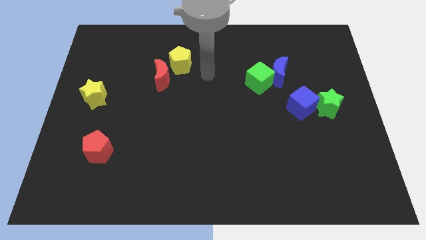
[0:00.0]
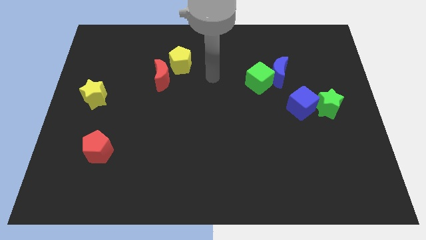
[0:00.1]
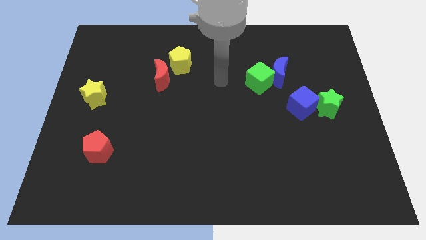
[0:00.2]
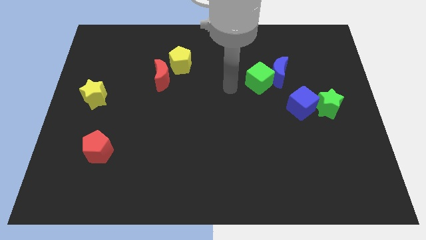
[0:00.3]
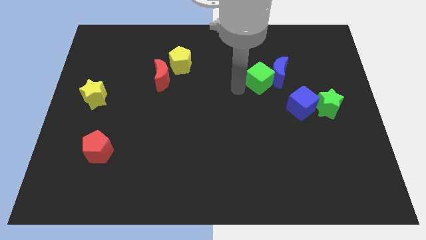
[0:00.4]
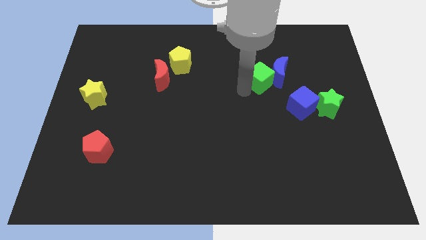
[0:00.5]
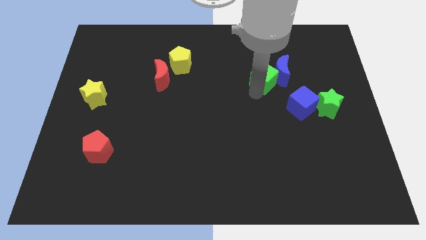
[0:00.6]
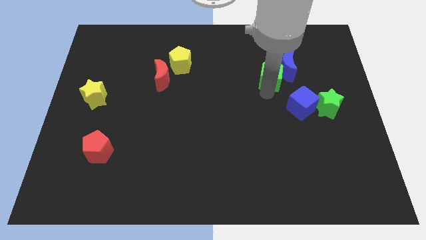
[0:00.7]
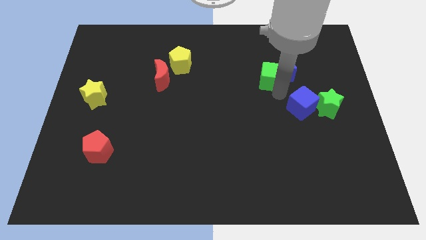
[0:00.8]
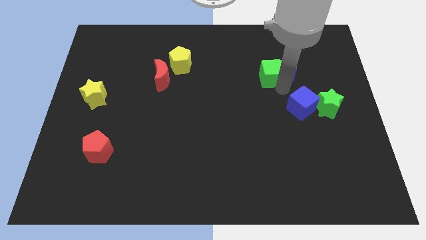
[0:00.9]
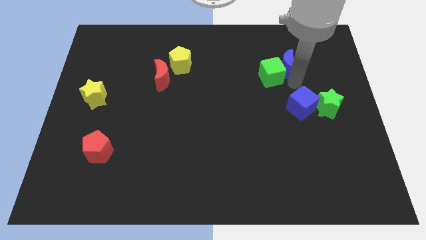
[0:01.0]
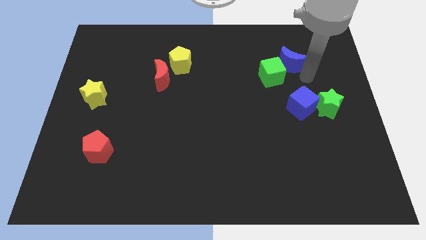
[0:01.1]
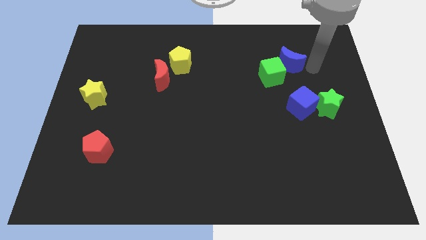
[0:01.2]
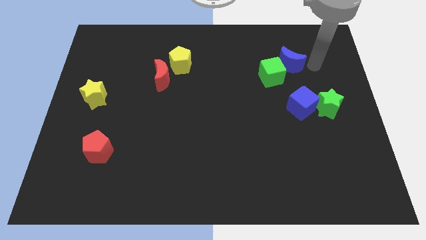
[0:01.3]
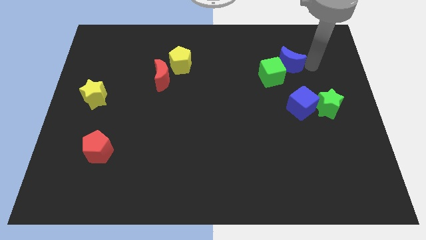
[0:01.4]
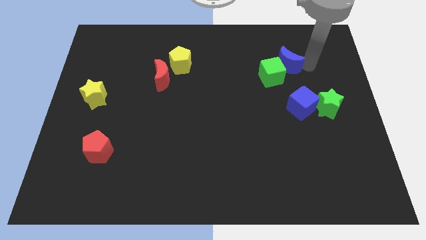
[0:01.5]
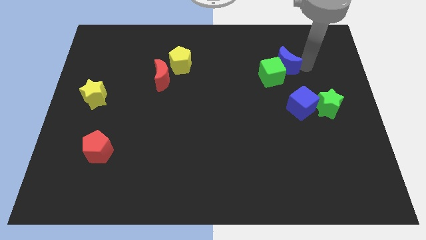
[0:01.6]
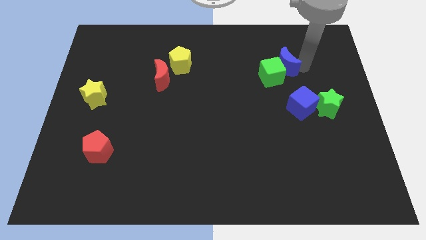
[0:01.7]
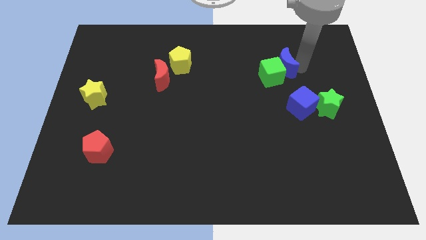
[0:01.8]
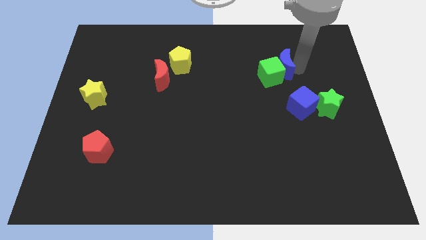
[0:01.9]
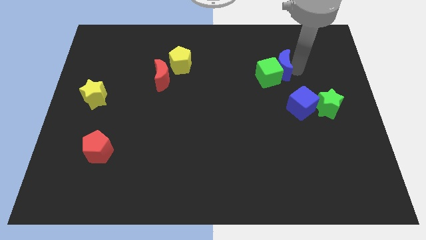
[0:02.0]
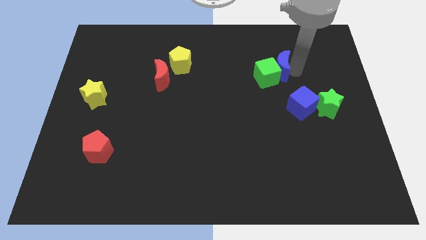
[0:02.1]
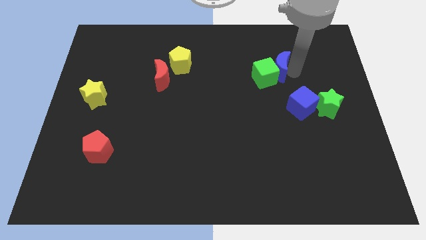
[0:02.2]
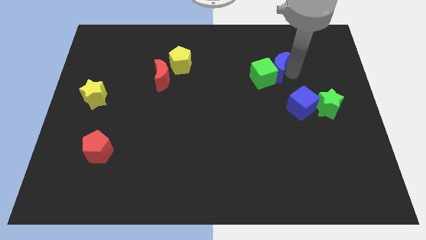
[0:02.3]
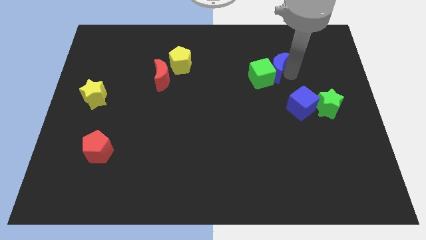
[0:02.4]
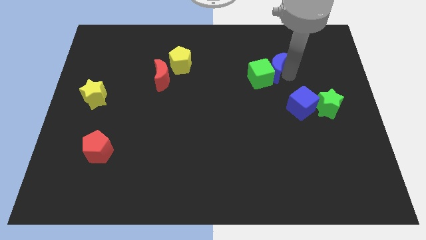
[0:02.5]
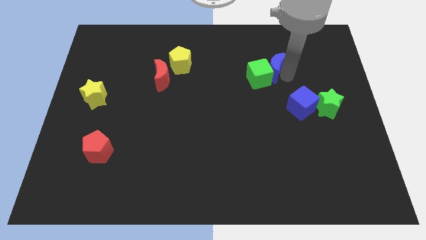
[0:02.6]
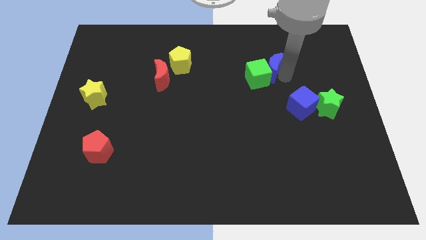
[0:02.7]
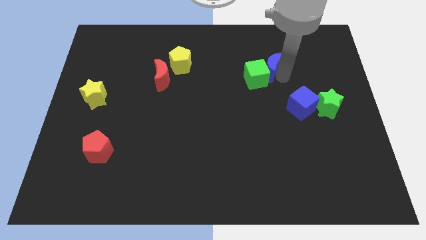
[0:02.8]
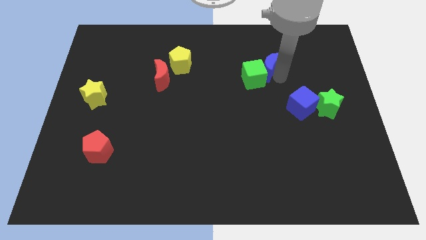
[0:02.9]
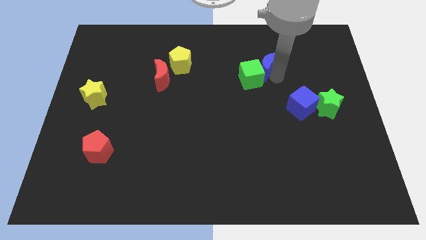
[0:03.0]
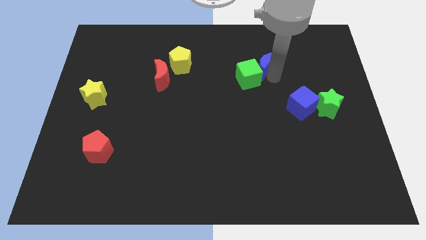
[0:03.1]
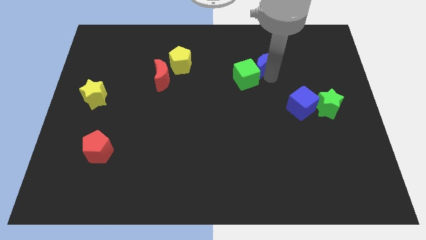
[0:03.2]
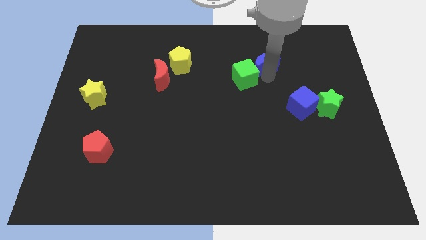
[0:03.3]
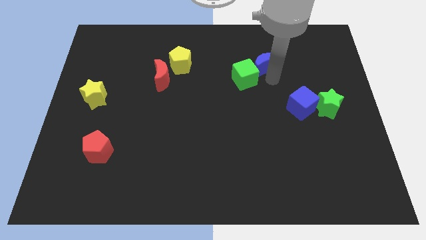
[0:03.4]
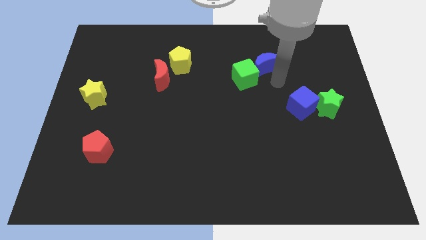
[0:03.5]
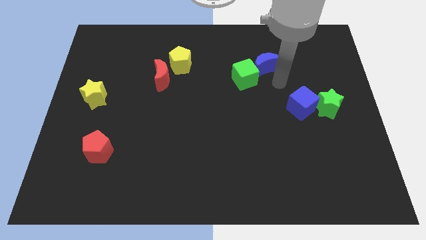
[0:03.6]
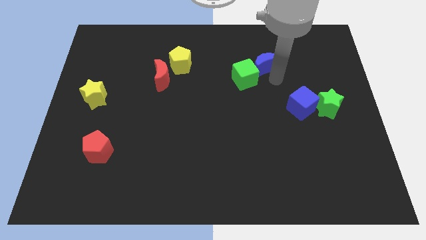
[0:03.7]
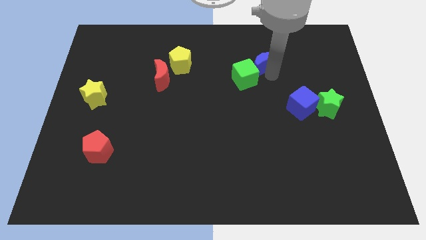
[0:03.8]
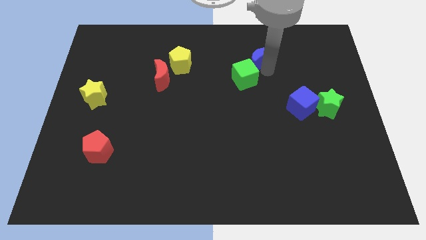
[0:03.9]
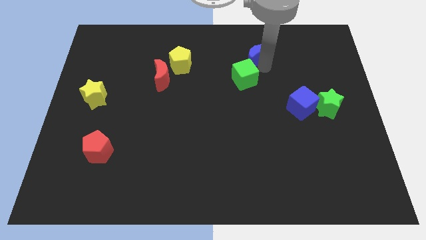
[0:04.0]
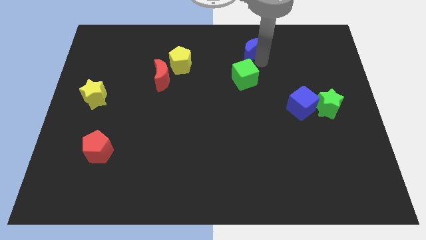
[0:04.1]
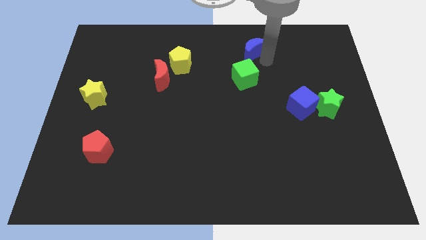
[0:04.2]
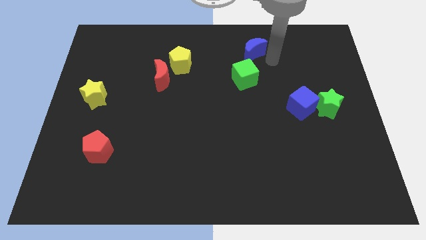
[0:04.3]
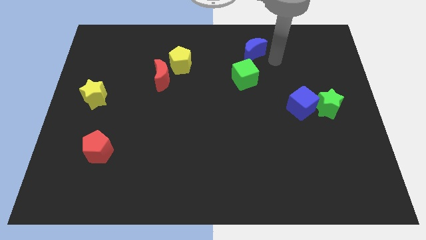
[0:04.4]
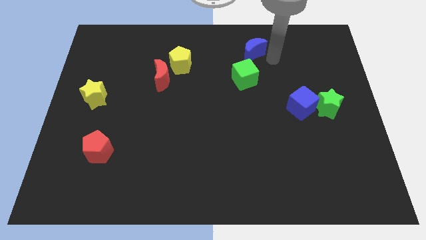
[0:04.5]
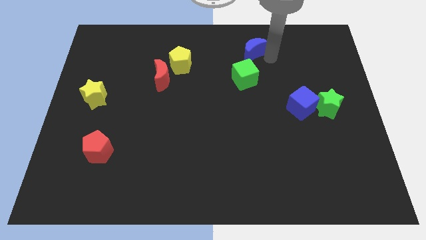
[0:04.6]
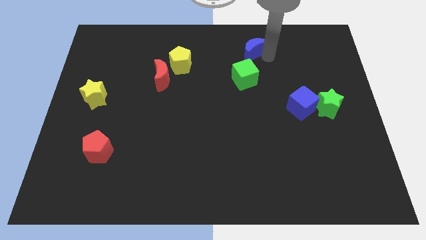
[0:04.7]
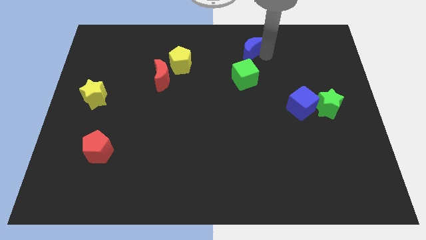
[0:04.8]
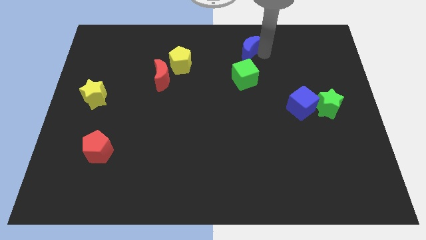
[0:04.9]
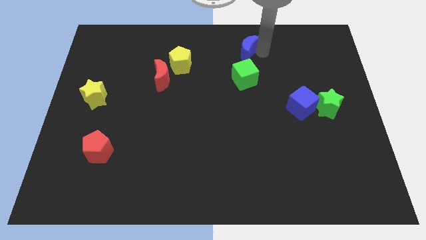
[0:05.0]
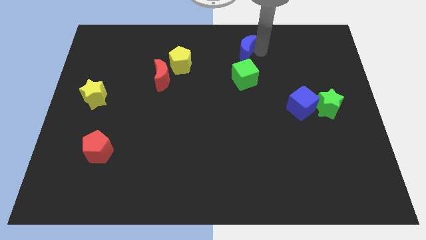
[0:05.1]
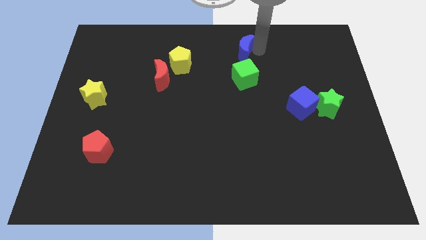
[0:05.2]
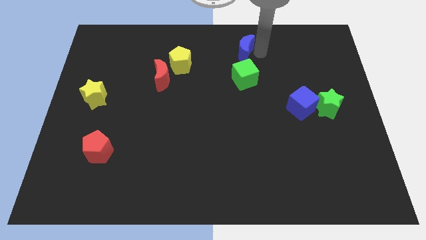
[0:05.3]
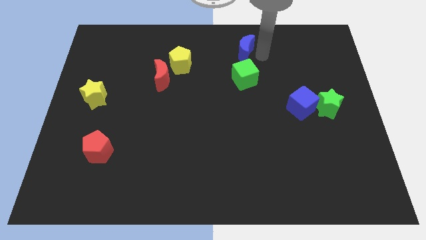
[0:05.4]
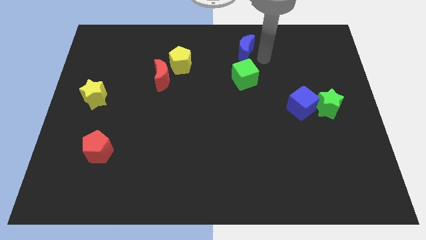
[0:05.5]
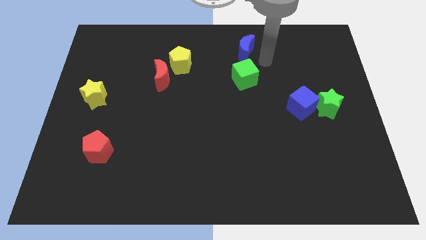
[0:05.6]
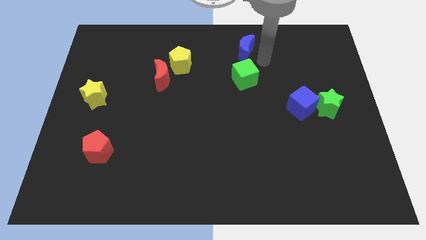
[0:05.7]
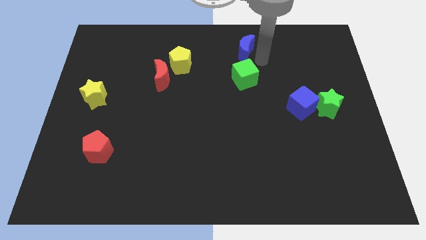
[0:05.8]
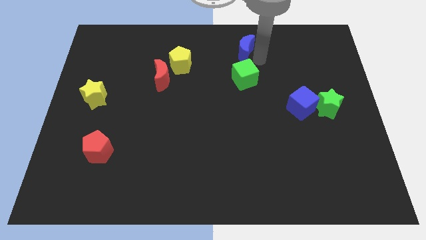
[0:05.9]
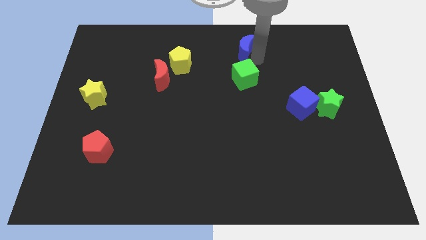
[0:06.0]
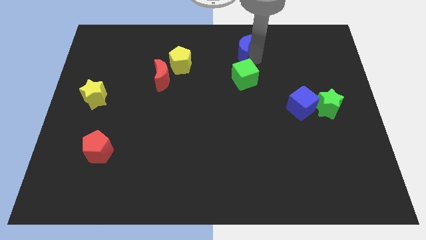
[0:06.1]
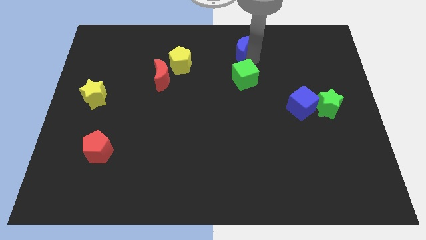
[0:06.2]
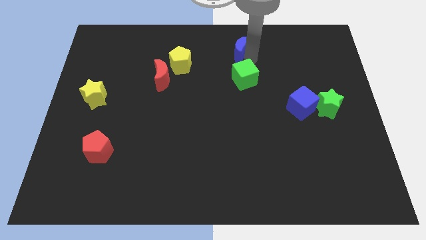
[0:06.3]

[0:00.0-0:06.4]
push the blue moon to the top
